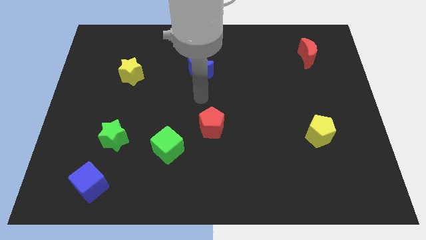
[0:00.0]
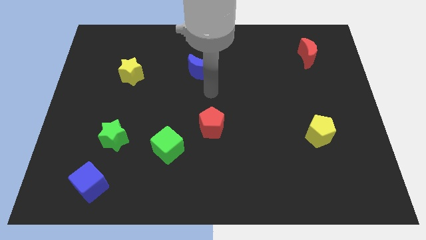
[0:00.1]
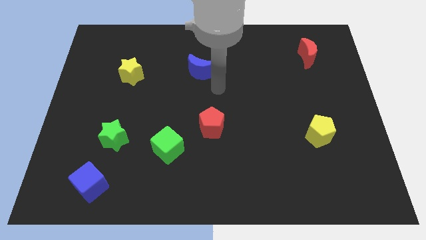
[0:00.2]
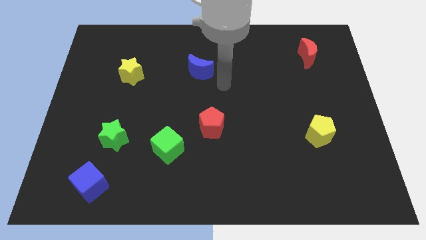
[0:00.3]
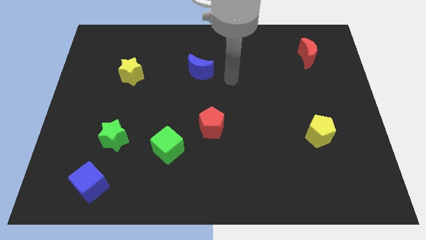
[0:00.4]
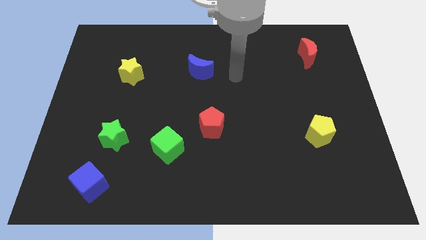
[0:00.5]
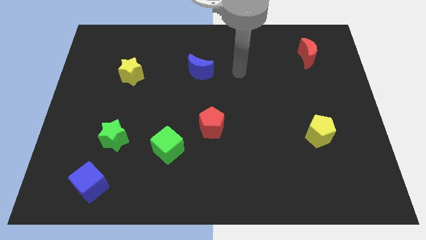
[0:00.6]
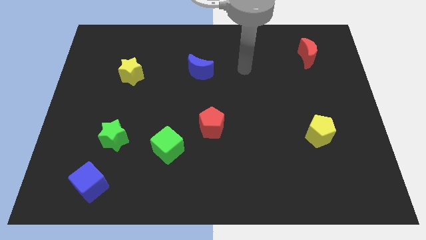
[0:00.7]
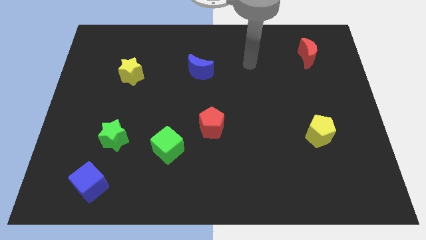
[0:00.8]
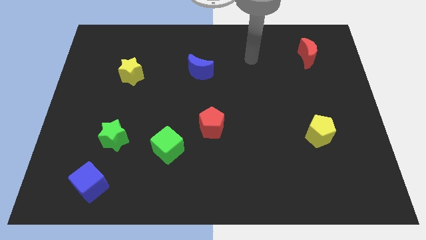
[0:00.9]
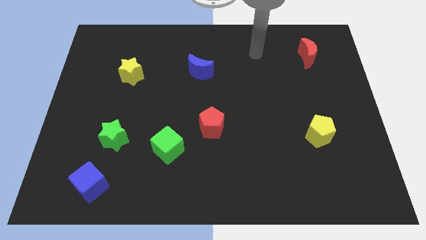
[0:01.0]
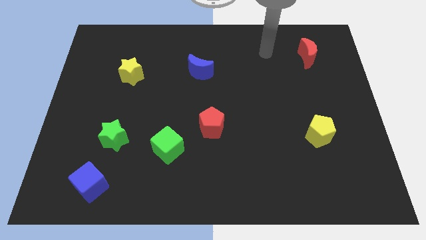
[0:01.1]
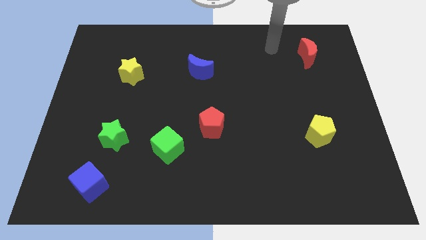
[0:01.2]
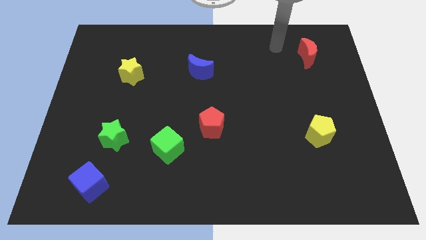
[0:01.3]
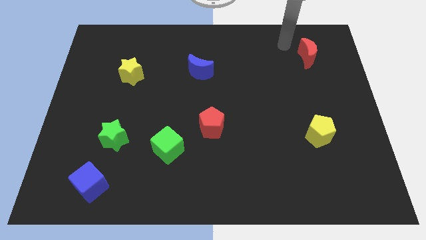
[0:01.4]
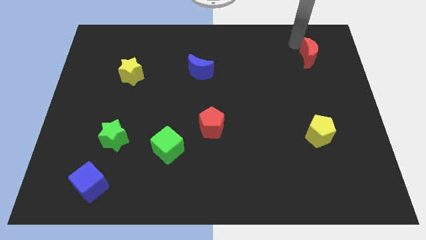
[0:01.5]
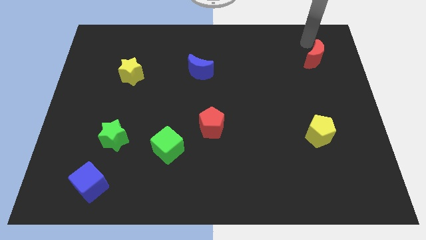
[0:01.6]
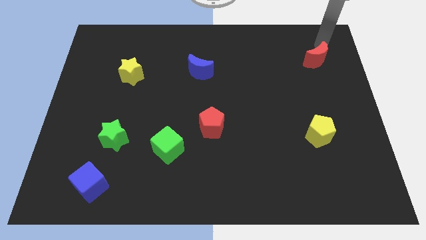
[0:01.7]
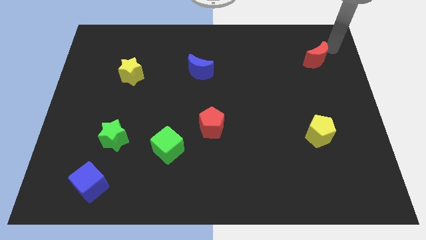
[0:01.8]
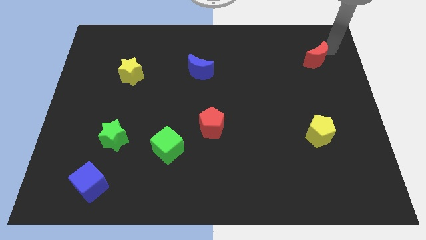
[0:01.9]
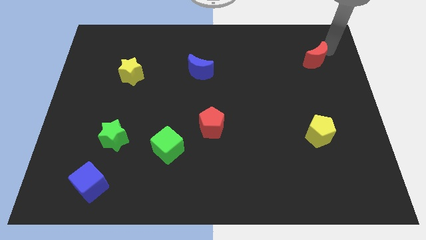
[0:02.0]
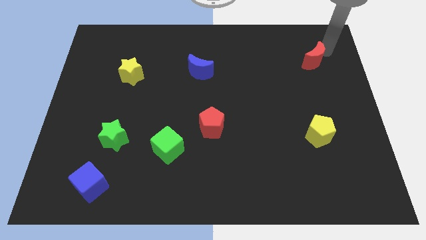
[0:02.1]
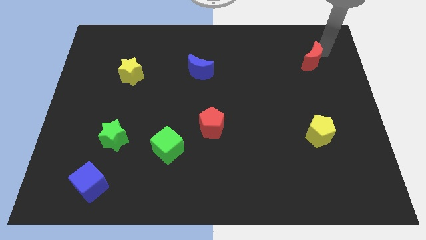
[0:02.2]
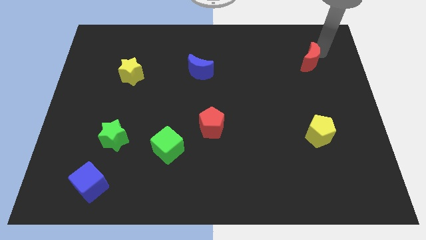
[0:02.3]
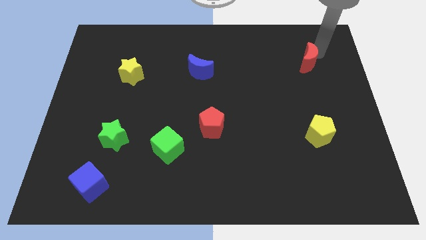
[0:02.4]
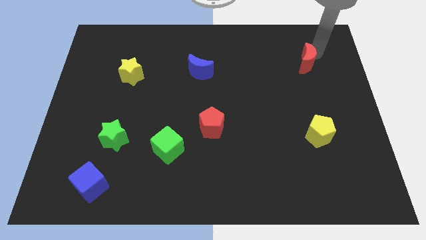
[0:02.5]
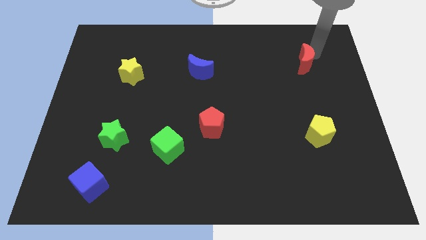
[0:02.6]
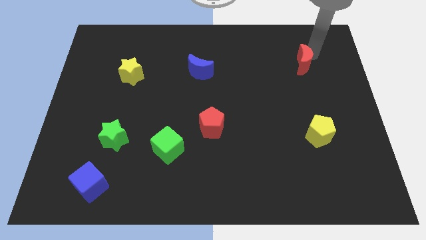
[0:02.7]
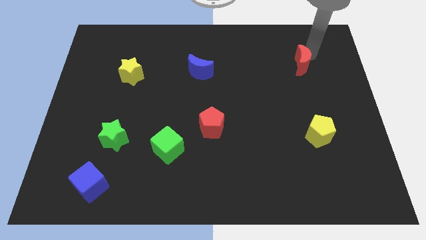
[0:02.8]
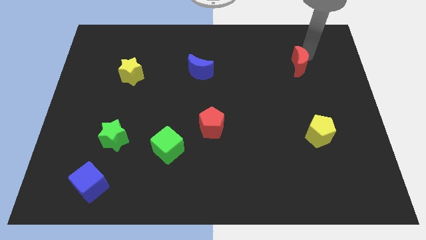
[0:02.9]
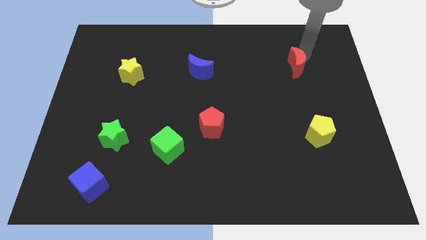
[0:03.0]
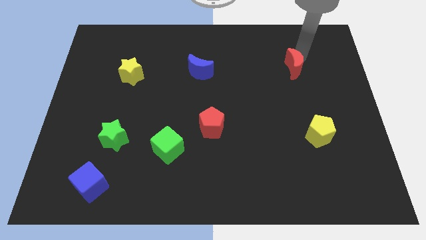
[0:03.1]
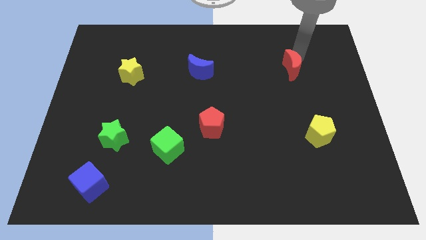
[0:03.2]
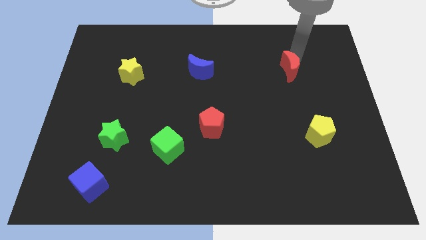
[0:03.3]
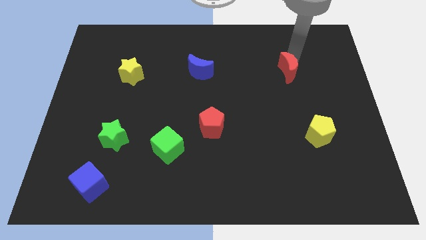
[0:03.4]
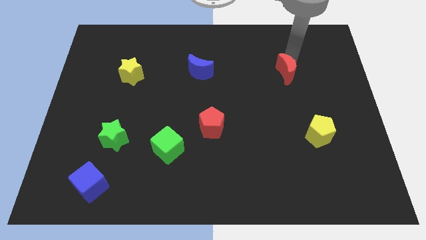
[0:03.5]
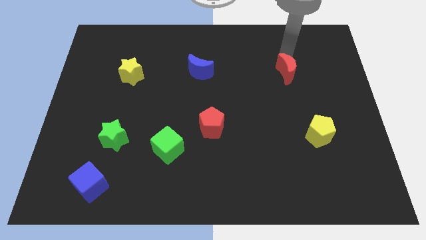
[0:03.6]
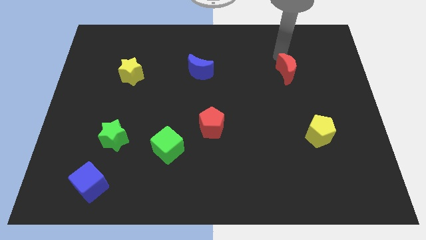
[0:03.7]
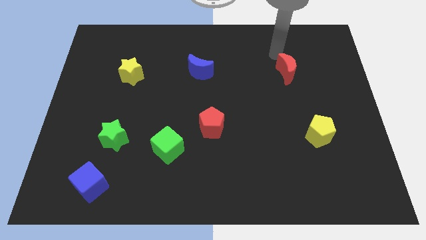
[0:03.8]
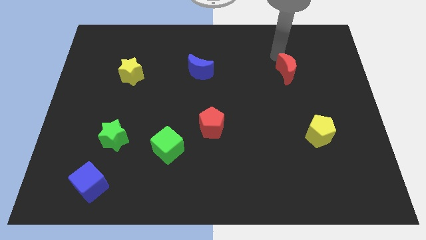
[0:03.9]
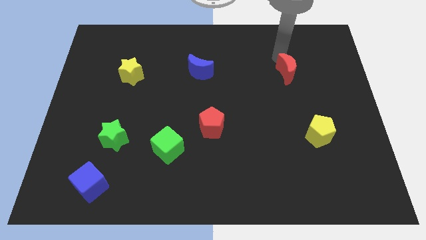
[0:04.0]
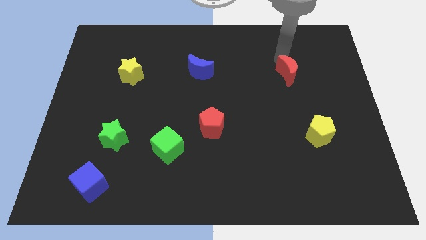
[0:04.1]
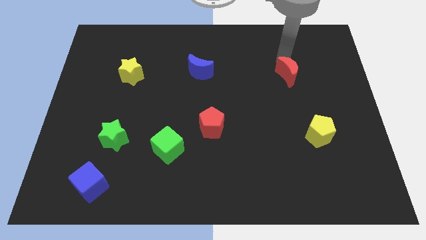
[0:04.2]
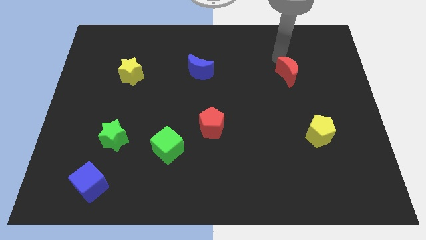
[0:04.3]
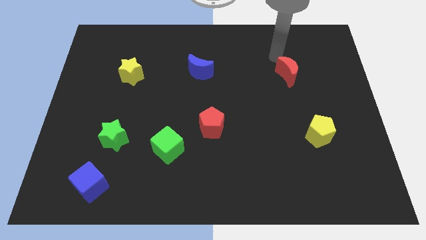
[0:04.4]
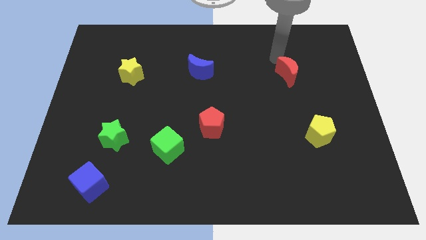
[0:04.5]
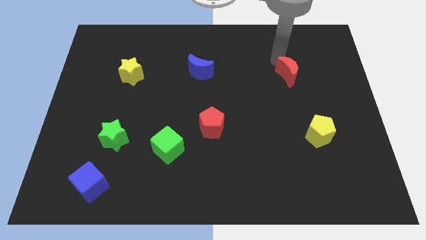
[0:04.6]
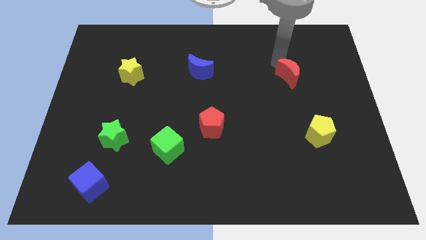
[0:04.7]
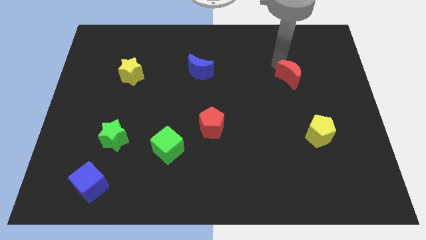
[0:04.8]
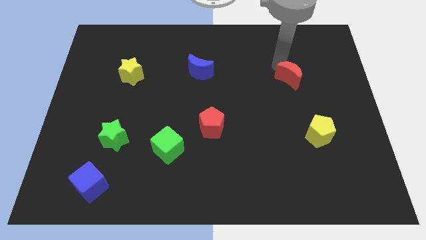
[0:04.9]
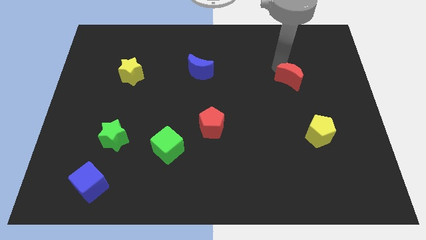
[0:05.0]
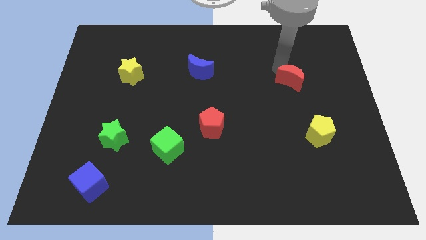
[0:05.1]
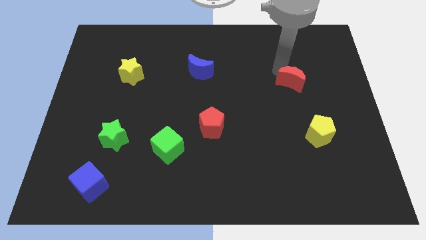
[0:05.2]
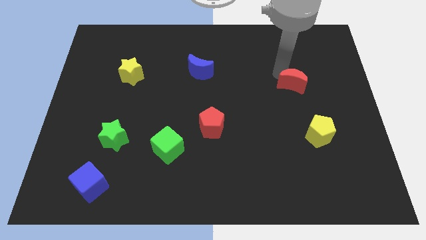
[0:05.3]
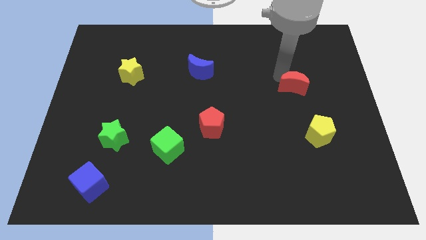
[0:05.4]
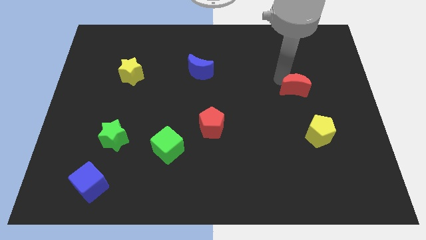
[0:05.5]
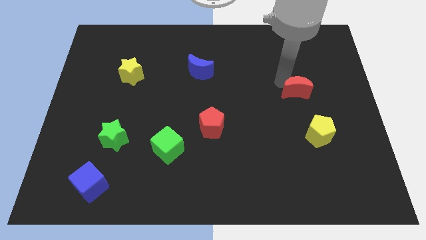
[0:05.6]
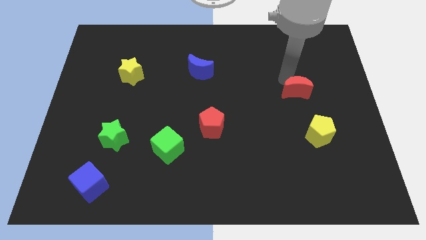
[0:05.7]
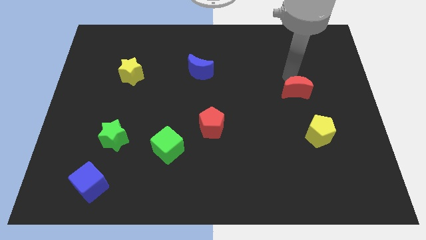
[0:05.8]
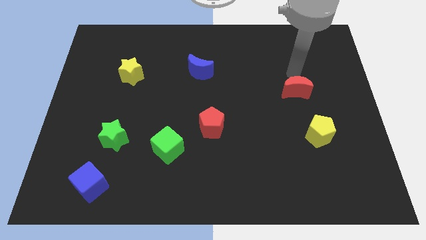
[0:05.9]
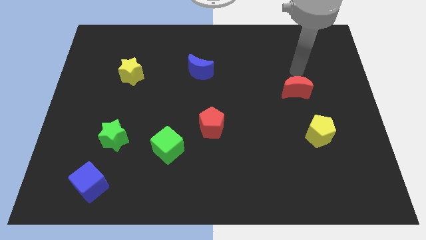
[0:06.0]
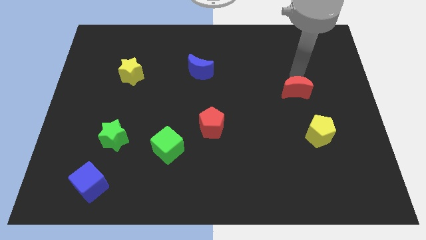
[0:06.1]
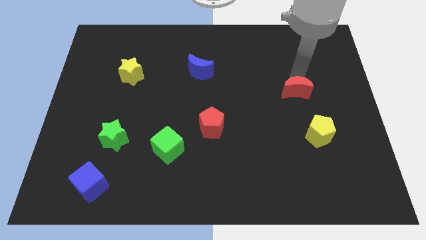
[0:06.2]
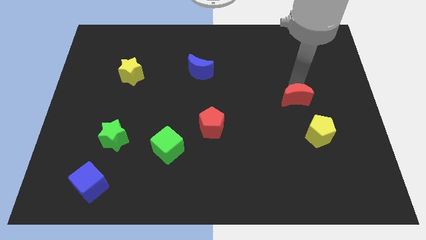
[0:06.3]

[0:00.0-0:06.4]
slide the red moon diagonally up and to the left of the yellow pentagon

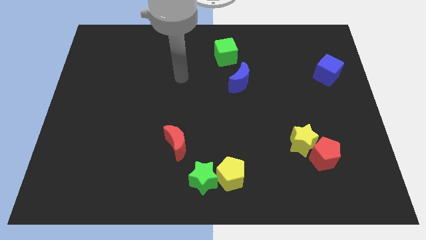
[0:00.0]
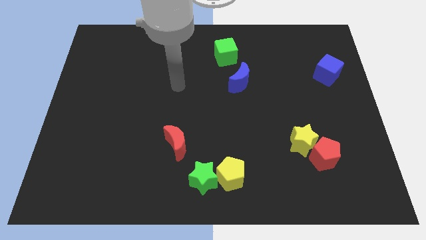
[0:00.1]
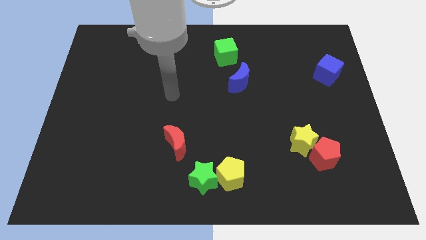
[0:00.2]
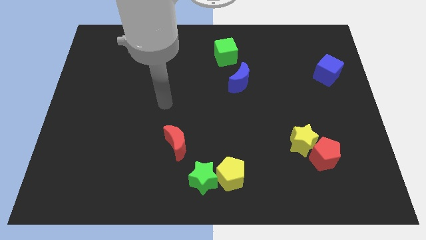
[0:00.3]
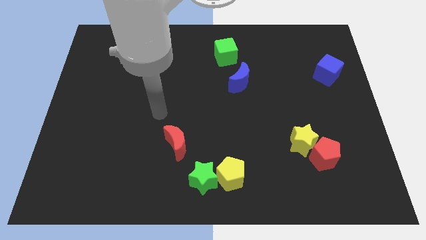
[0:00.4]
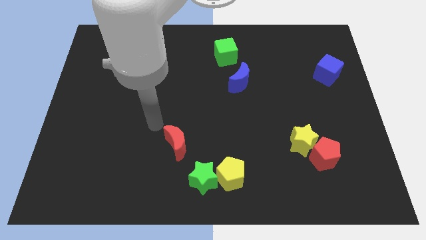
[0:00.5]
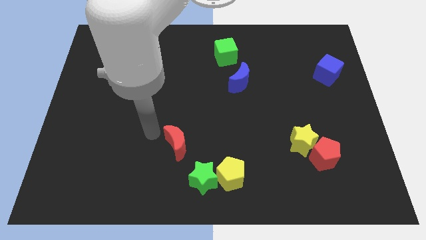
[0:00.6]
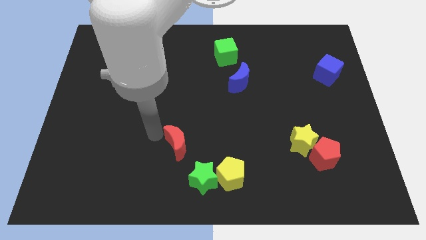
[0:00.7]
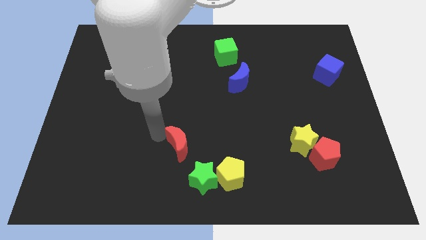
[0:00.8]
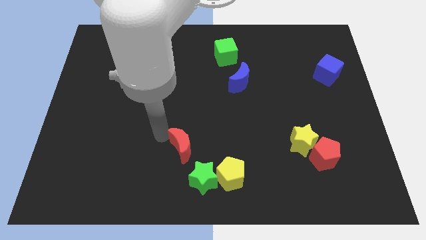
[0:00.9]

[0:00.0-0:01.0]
slide the red moon to the top left of the yellow pentagon
